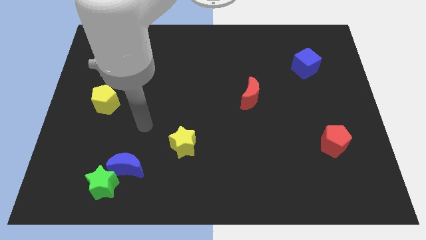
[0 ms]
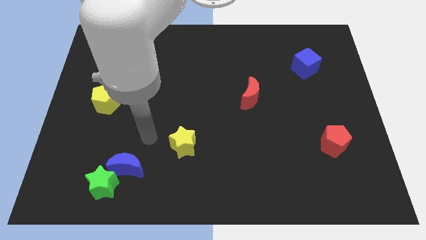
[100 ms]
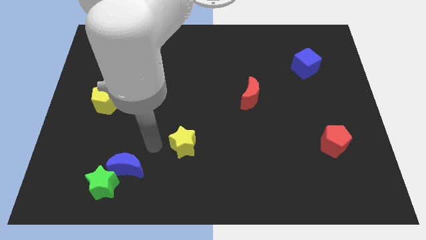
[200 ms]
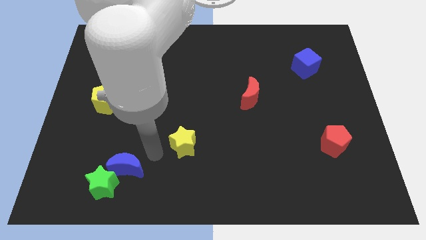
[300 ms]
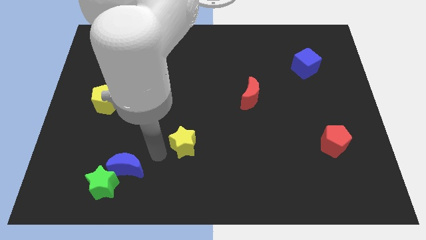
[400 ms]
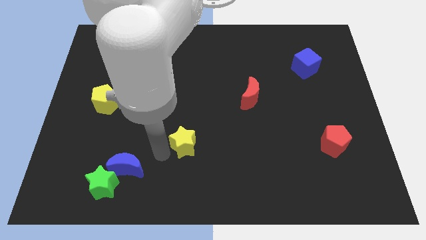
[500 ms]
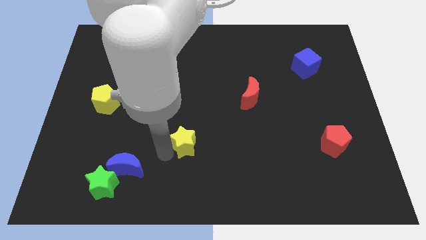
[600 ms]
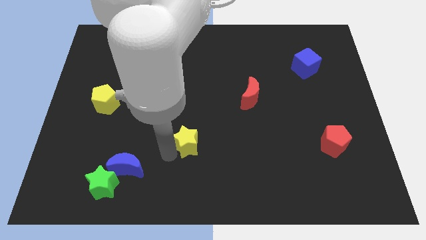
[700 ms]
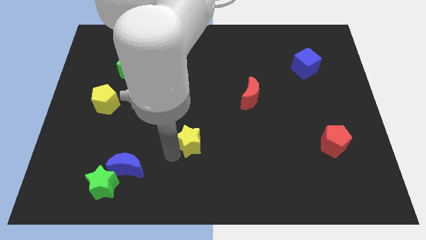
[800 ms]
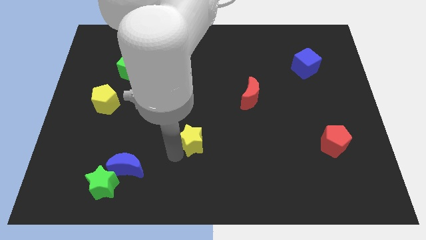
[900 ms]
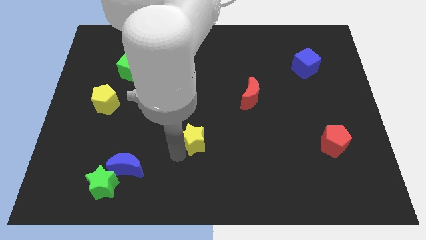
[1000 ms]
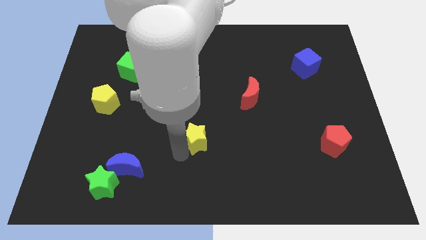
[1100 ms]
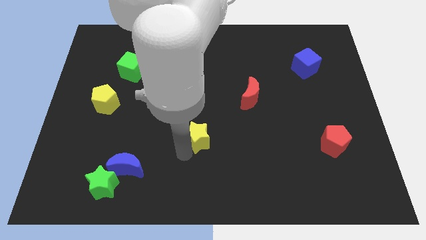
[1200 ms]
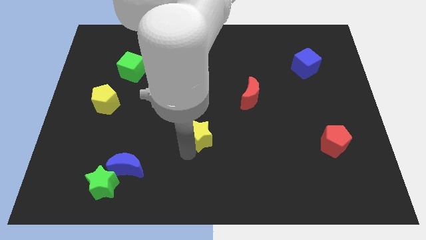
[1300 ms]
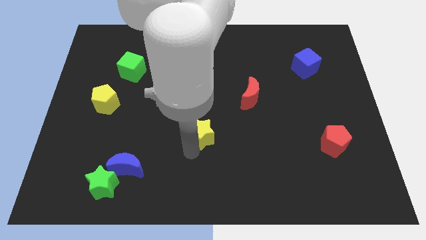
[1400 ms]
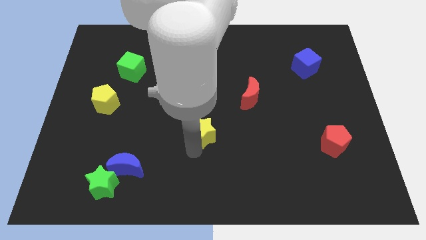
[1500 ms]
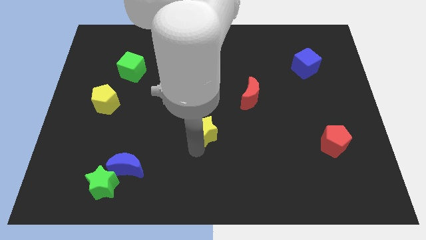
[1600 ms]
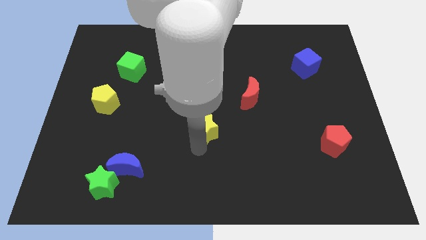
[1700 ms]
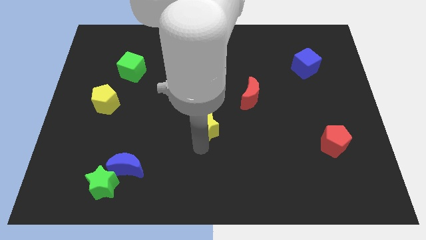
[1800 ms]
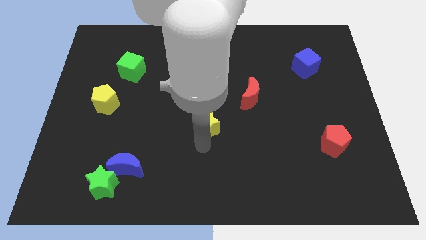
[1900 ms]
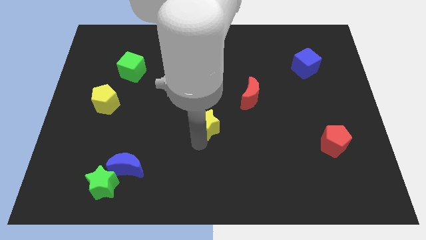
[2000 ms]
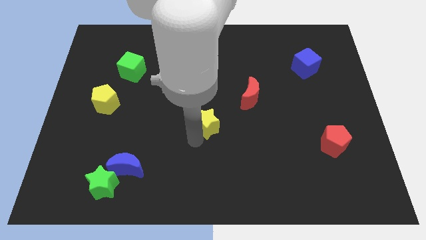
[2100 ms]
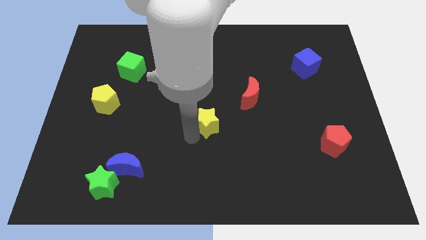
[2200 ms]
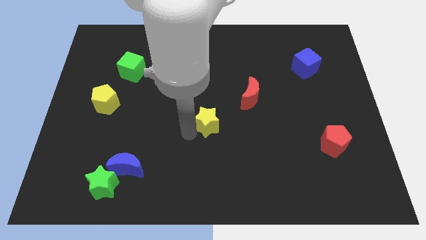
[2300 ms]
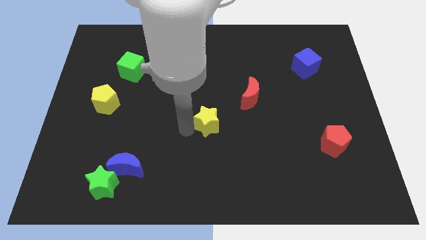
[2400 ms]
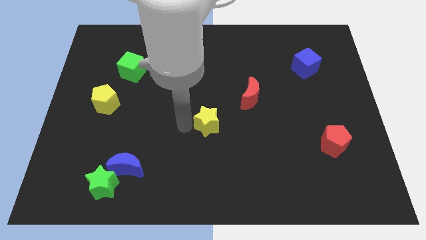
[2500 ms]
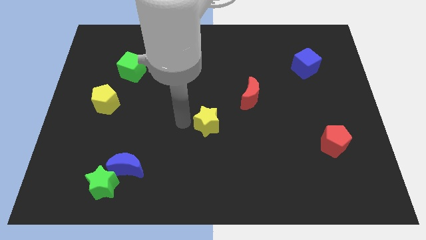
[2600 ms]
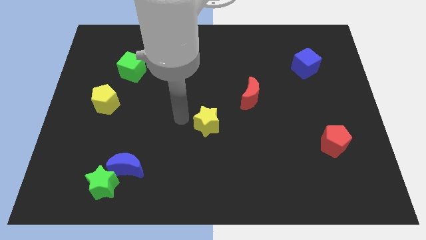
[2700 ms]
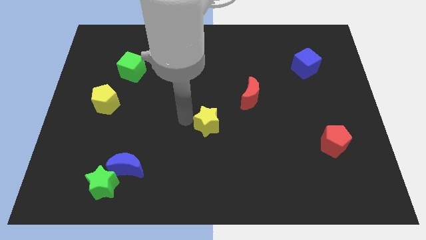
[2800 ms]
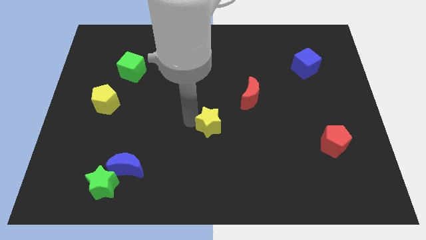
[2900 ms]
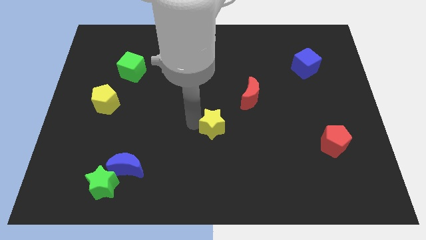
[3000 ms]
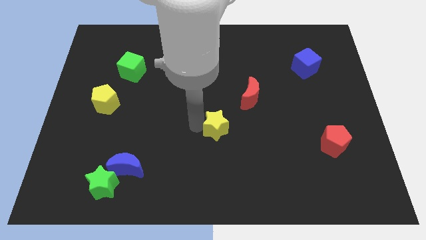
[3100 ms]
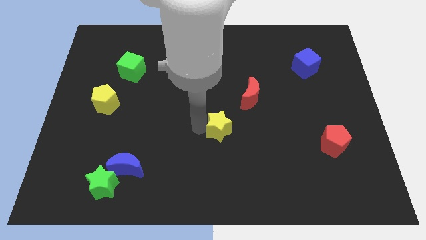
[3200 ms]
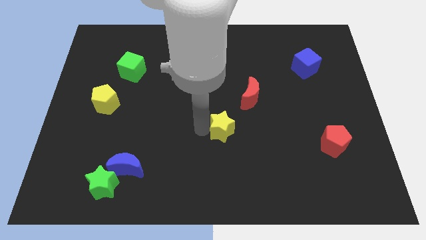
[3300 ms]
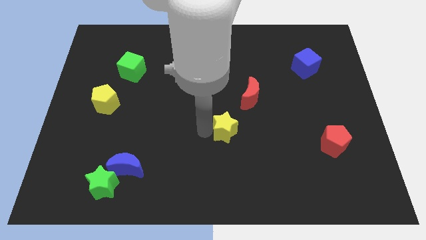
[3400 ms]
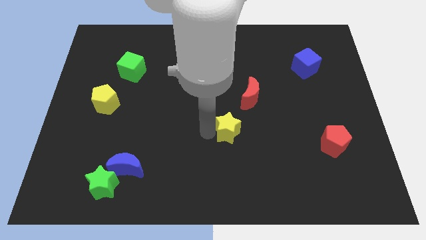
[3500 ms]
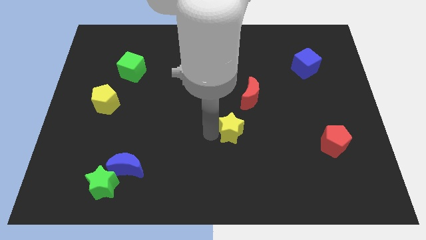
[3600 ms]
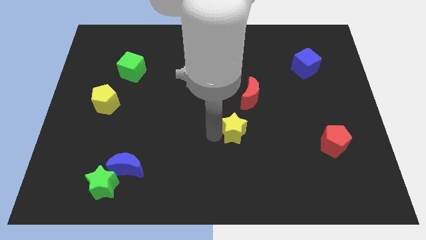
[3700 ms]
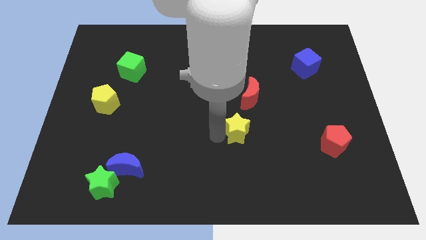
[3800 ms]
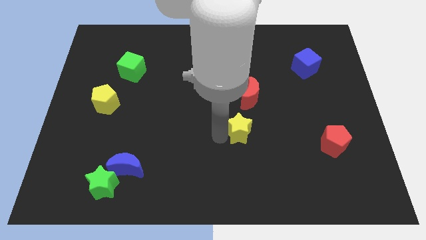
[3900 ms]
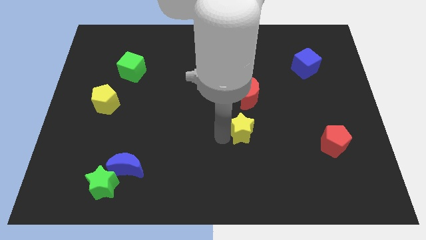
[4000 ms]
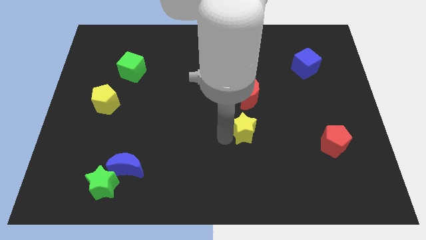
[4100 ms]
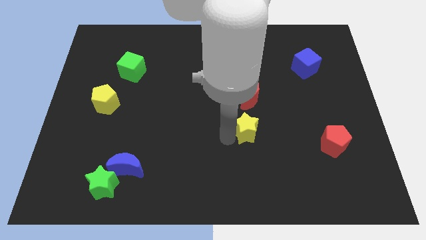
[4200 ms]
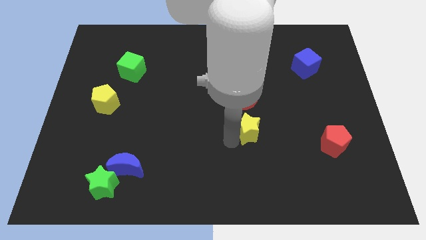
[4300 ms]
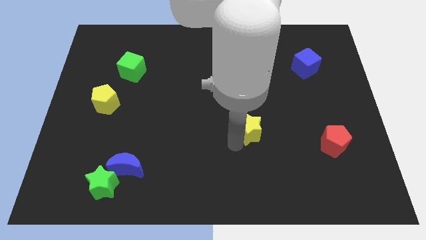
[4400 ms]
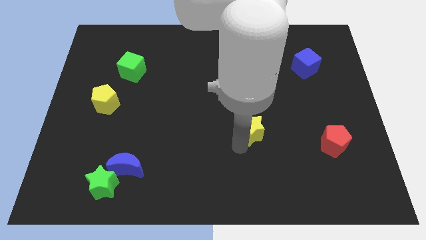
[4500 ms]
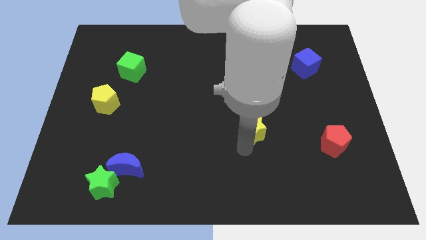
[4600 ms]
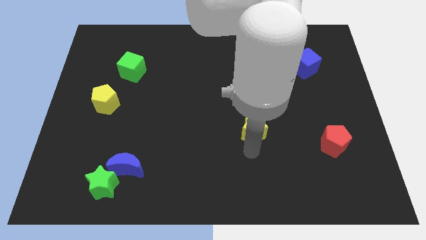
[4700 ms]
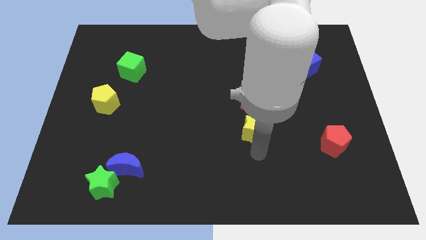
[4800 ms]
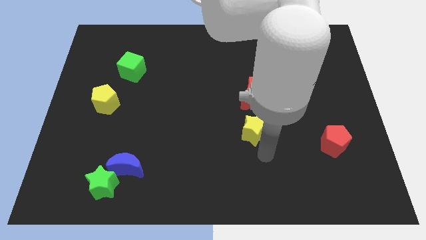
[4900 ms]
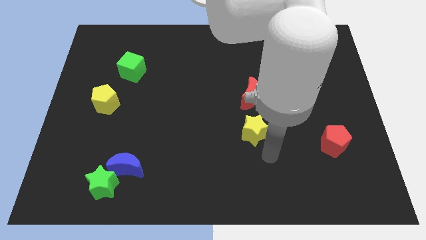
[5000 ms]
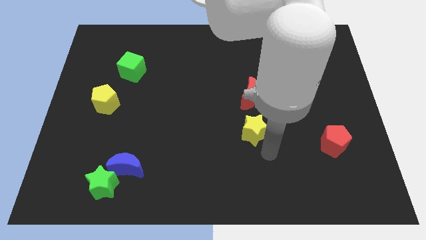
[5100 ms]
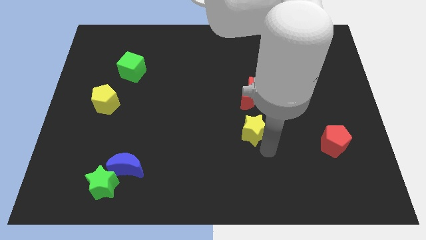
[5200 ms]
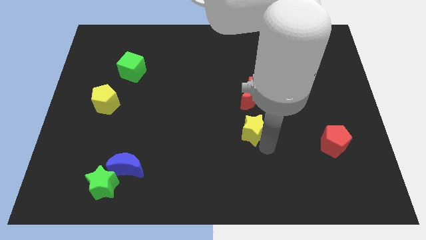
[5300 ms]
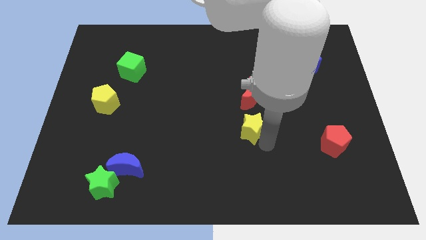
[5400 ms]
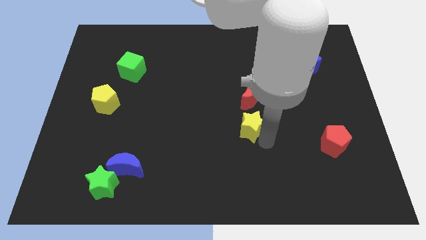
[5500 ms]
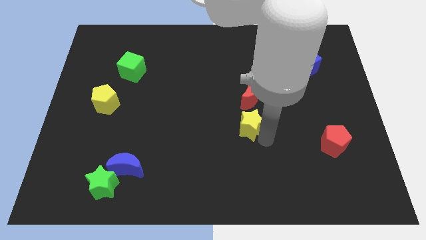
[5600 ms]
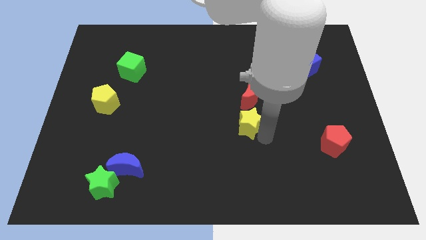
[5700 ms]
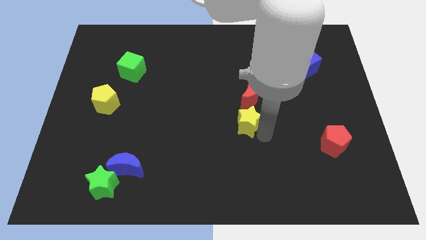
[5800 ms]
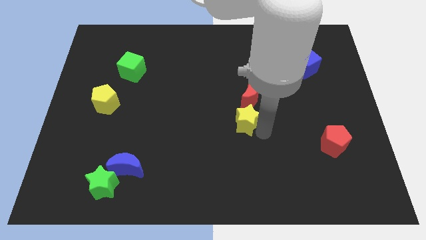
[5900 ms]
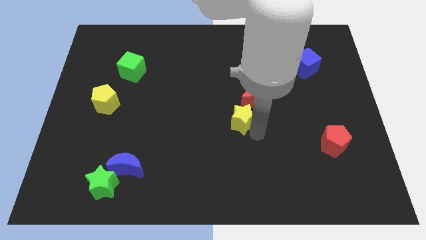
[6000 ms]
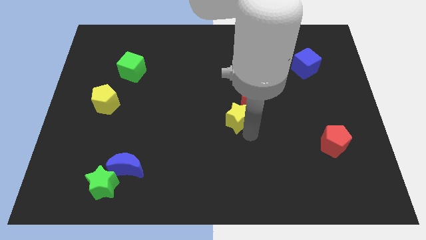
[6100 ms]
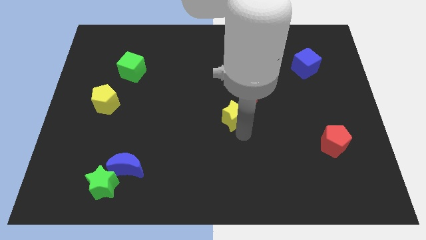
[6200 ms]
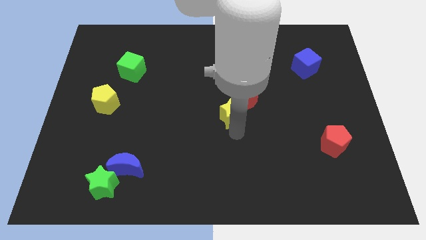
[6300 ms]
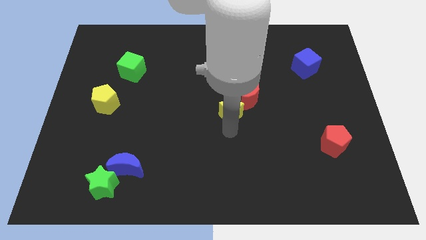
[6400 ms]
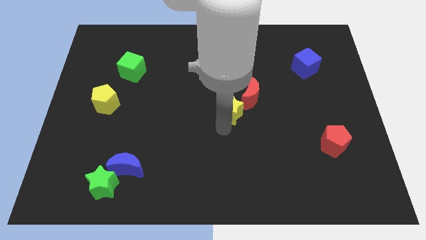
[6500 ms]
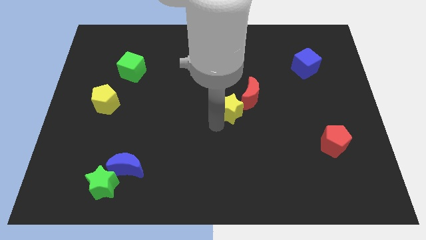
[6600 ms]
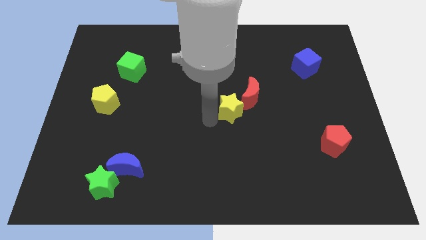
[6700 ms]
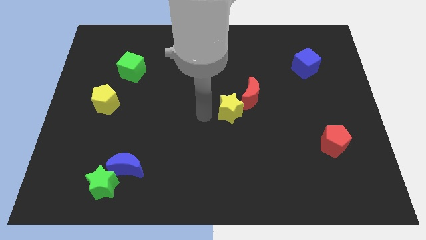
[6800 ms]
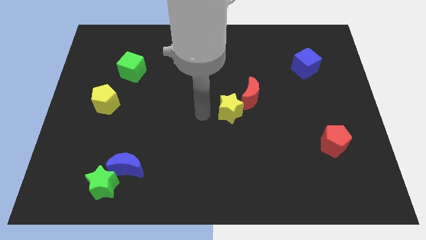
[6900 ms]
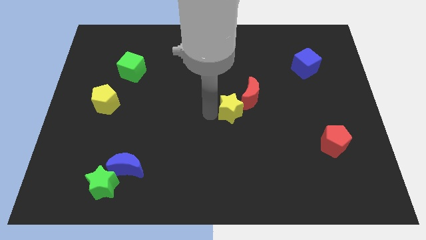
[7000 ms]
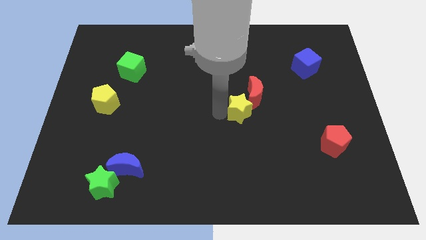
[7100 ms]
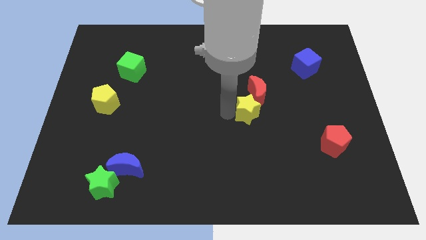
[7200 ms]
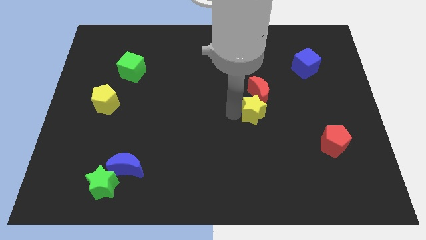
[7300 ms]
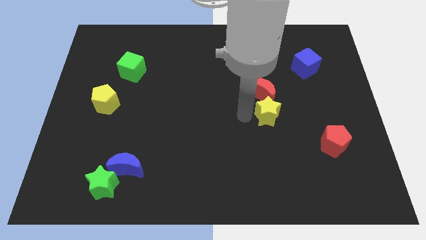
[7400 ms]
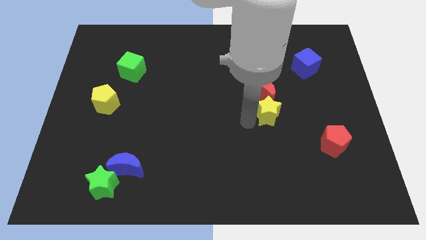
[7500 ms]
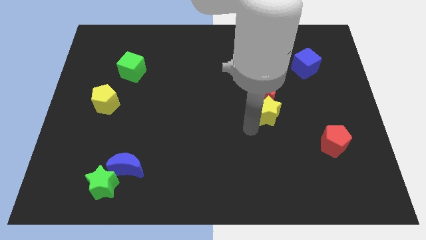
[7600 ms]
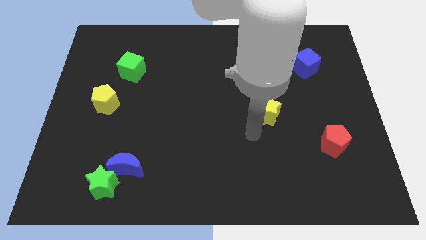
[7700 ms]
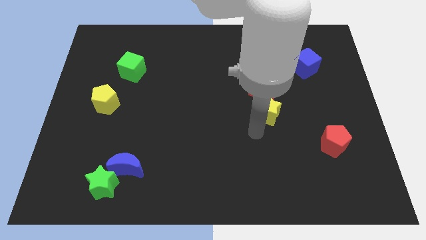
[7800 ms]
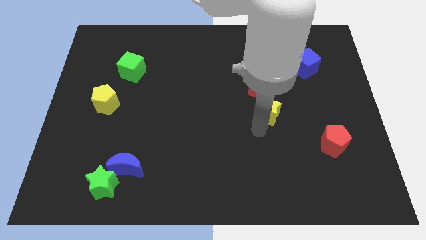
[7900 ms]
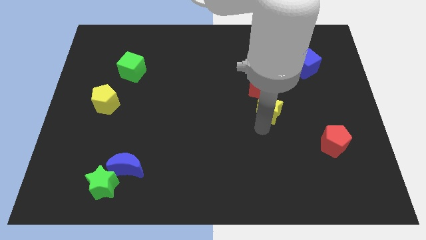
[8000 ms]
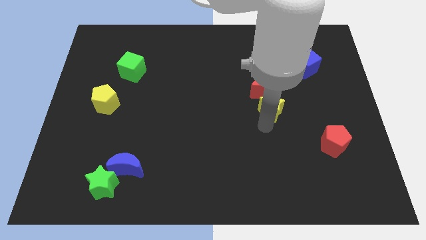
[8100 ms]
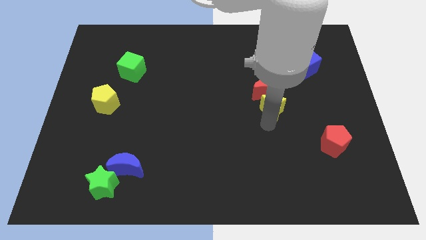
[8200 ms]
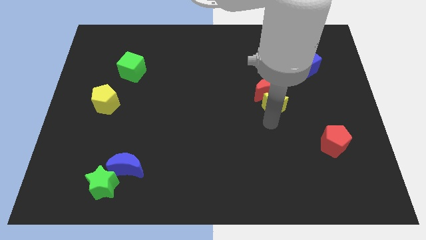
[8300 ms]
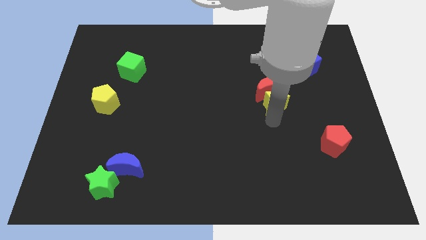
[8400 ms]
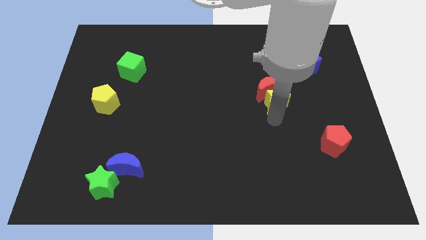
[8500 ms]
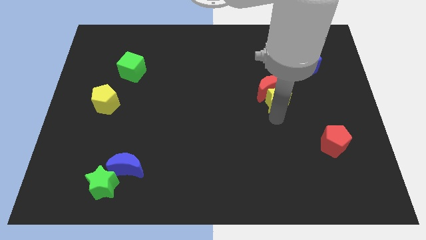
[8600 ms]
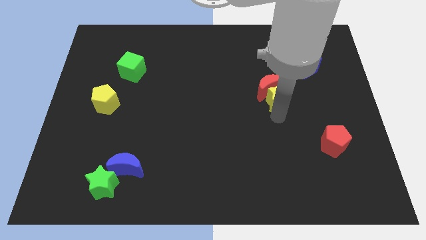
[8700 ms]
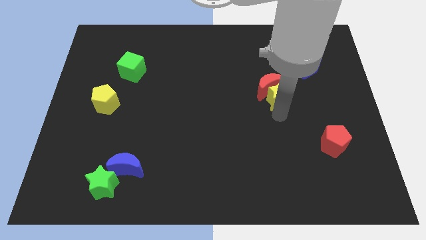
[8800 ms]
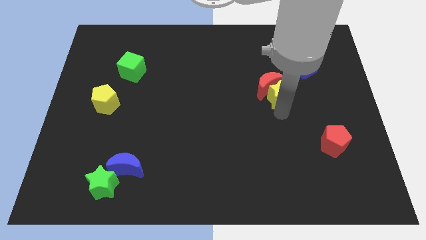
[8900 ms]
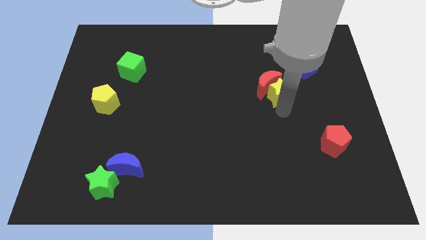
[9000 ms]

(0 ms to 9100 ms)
put the yellow star to the bottom left side of the blue cube
